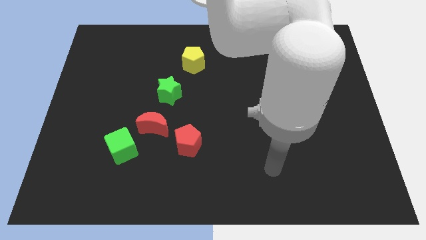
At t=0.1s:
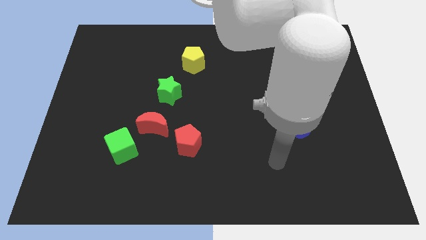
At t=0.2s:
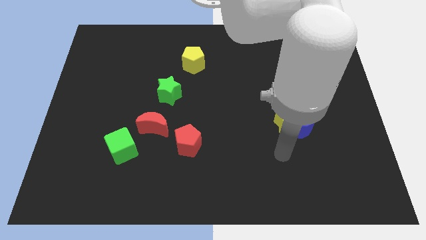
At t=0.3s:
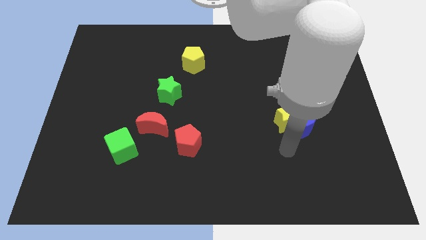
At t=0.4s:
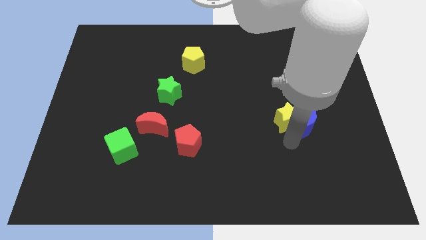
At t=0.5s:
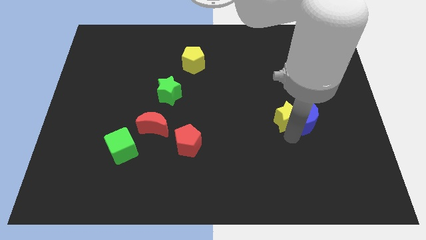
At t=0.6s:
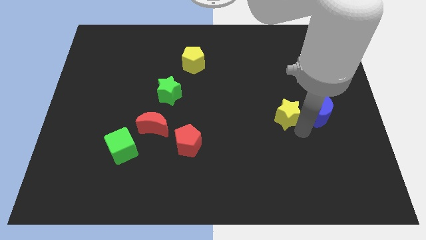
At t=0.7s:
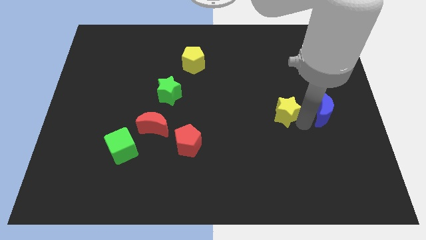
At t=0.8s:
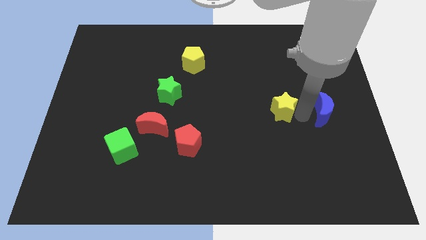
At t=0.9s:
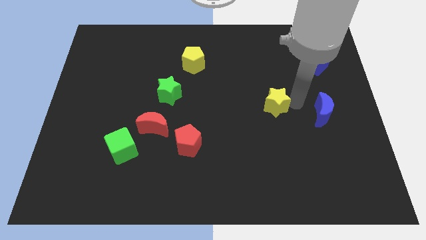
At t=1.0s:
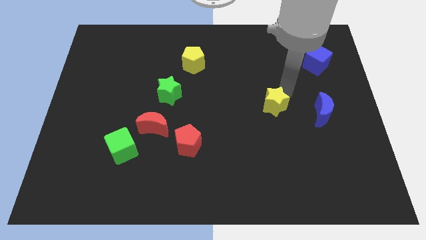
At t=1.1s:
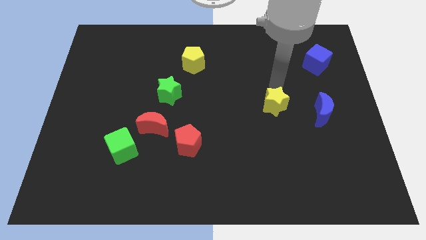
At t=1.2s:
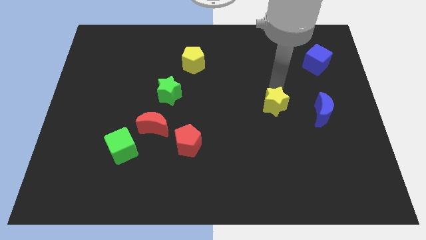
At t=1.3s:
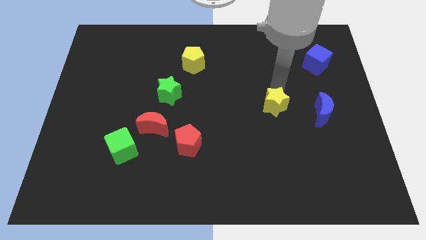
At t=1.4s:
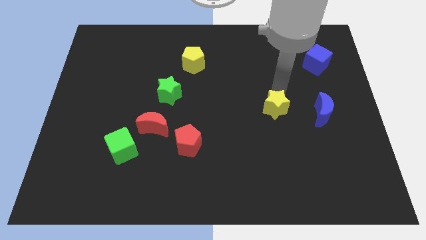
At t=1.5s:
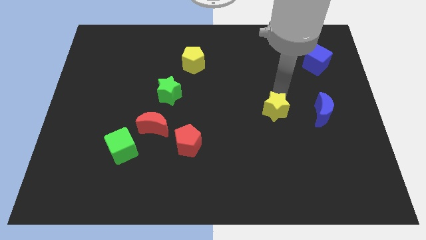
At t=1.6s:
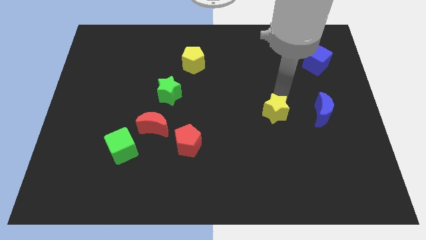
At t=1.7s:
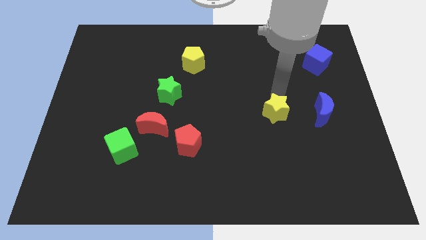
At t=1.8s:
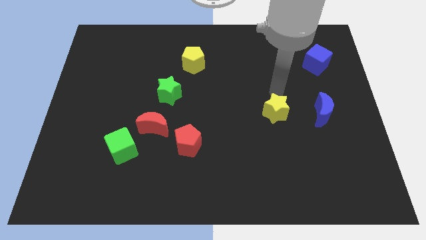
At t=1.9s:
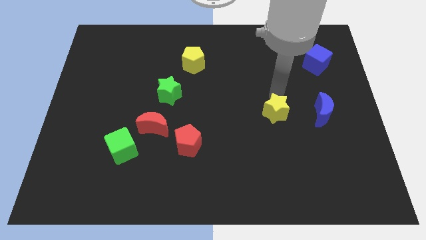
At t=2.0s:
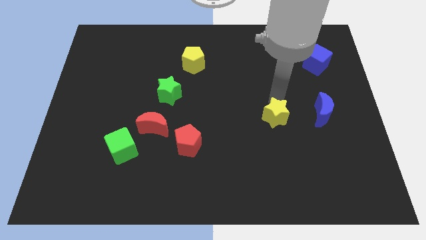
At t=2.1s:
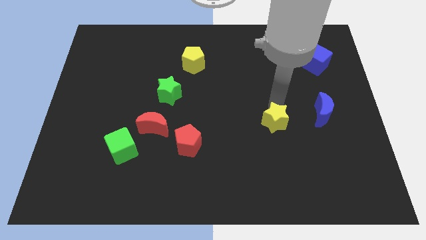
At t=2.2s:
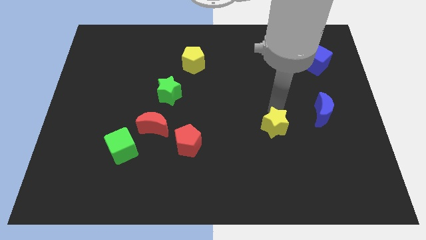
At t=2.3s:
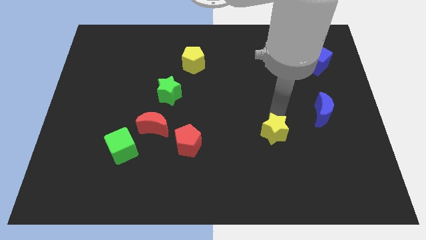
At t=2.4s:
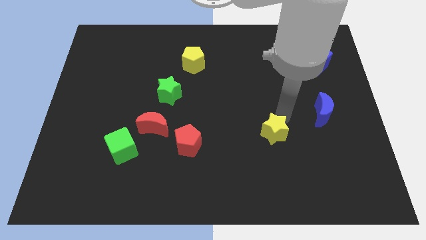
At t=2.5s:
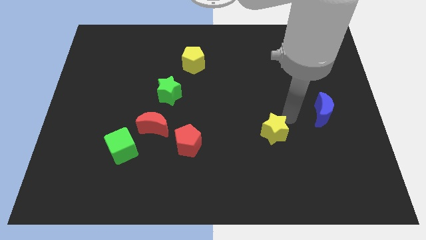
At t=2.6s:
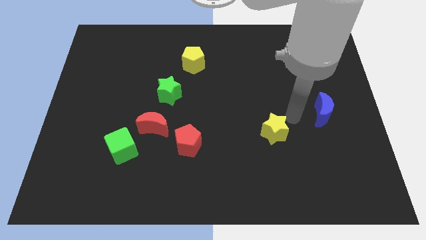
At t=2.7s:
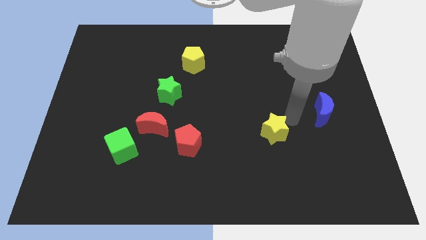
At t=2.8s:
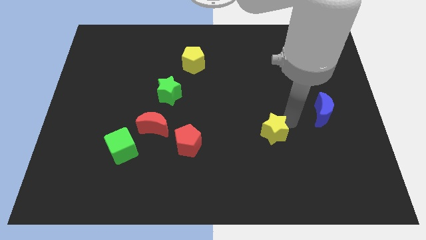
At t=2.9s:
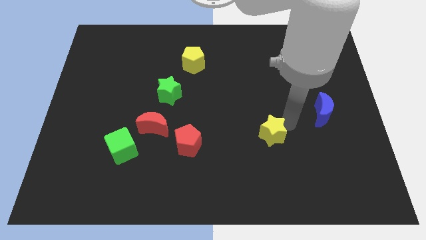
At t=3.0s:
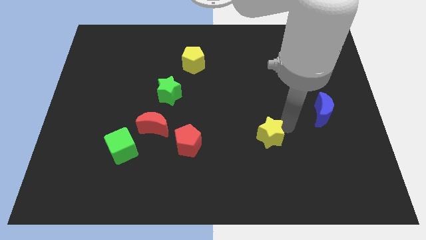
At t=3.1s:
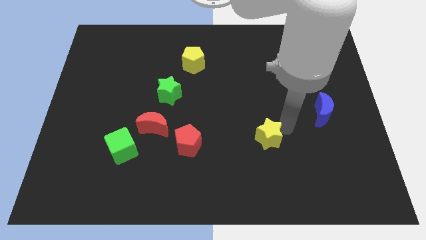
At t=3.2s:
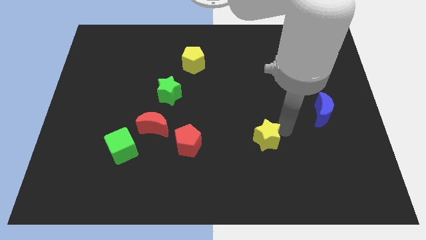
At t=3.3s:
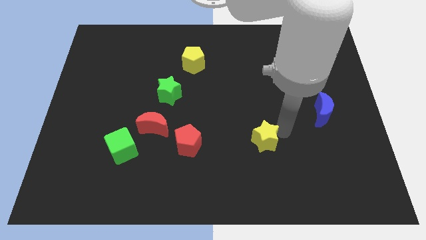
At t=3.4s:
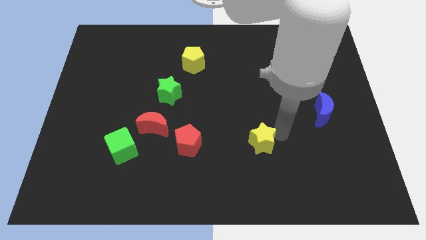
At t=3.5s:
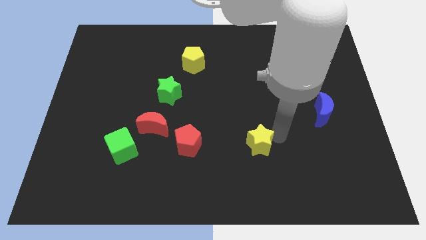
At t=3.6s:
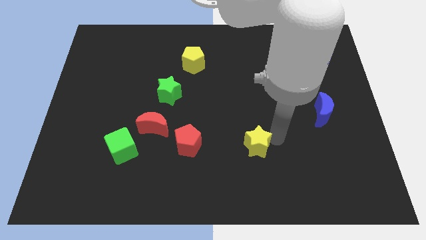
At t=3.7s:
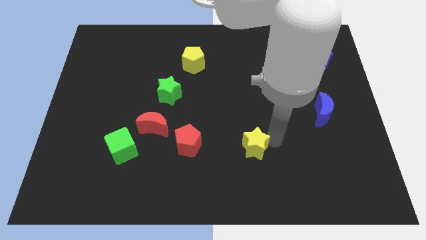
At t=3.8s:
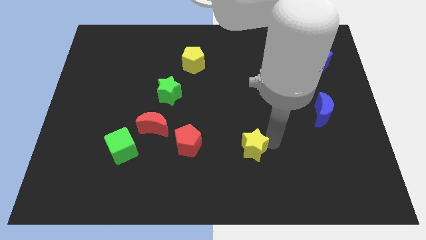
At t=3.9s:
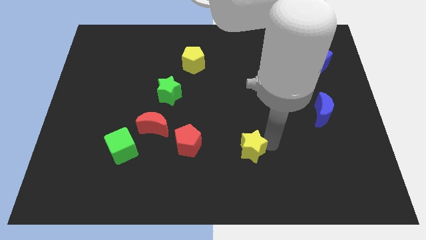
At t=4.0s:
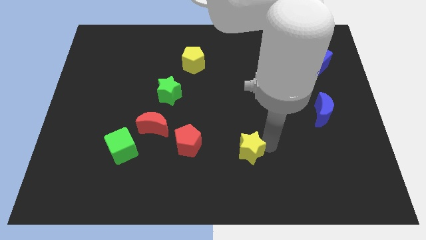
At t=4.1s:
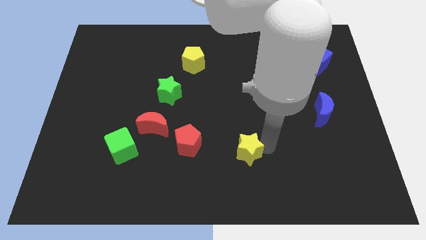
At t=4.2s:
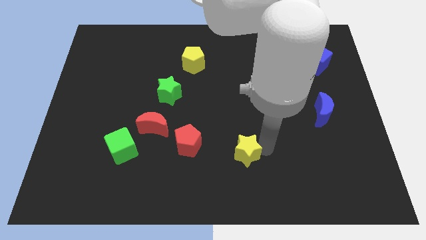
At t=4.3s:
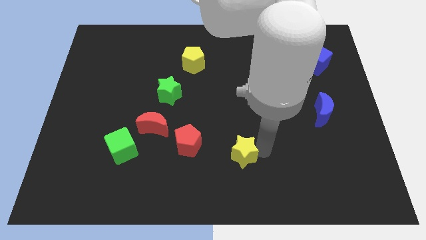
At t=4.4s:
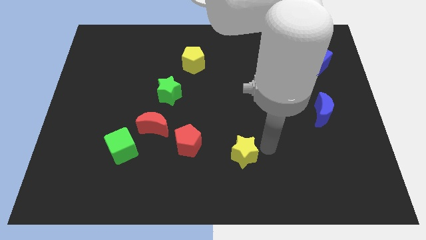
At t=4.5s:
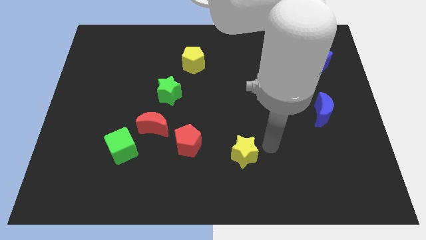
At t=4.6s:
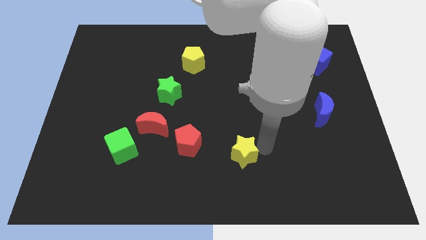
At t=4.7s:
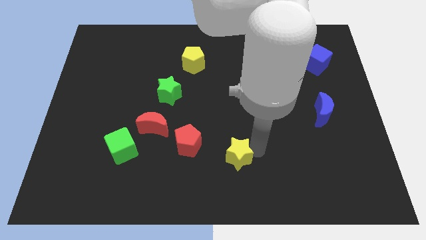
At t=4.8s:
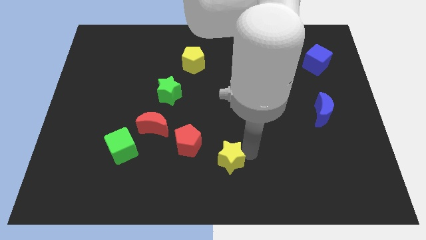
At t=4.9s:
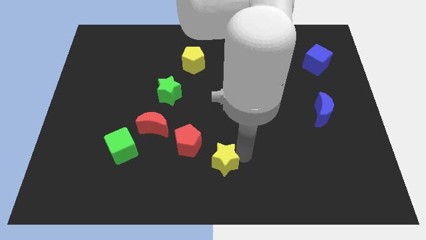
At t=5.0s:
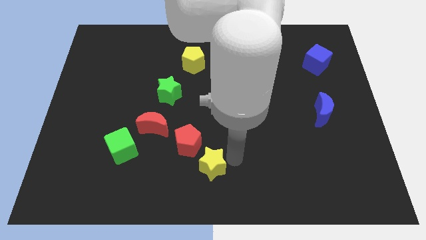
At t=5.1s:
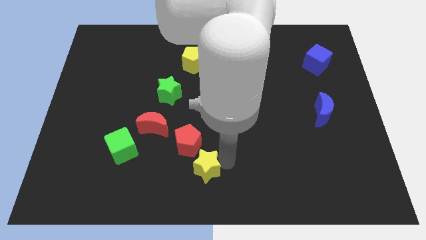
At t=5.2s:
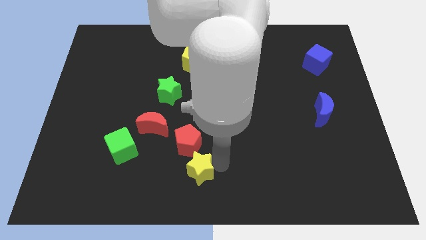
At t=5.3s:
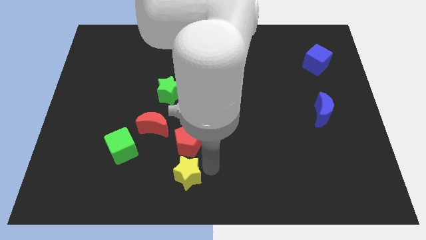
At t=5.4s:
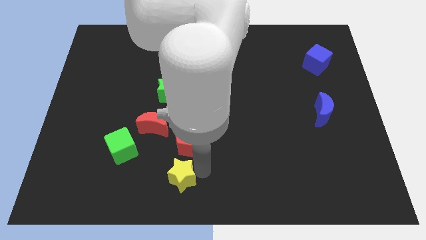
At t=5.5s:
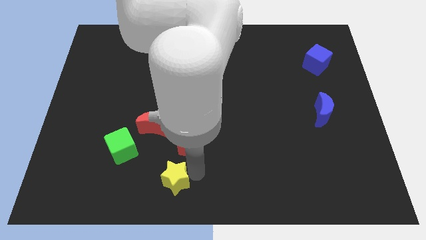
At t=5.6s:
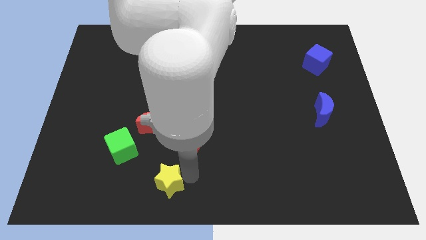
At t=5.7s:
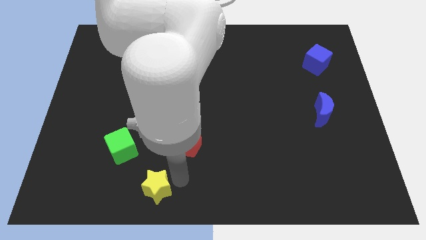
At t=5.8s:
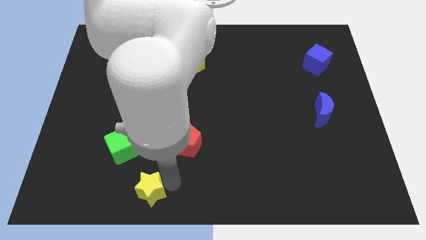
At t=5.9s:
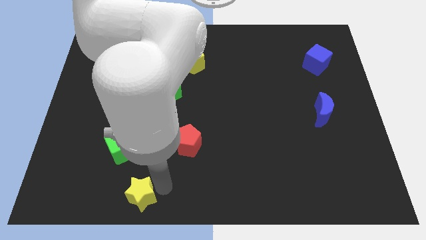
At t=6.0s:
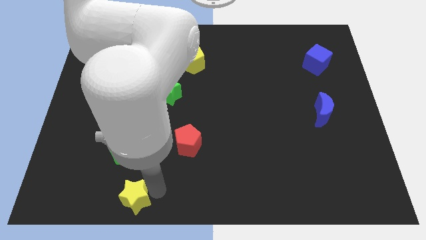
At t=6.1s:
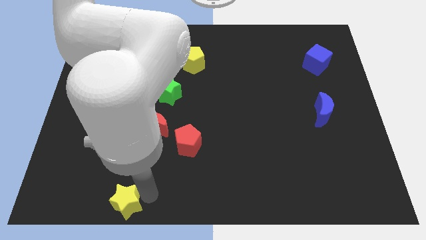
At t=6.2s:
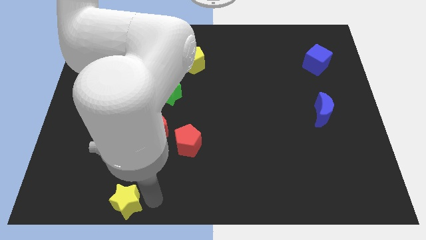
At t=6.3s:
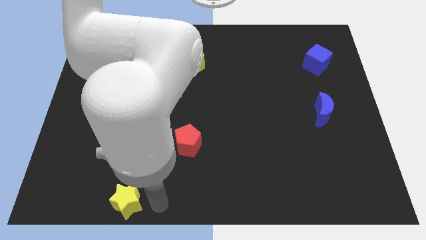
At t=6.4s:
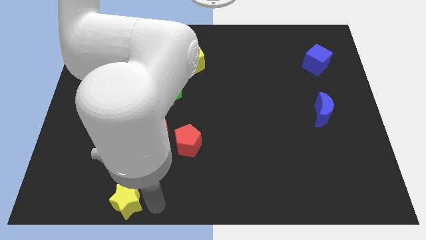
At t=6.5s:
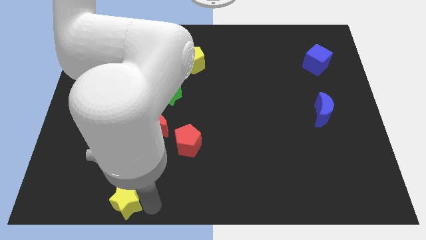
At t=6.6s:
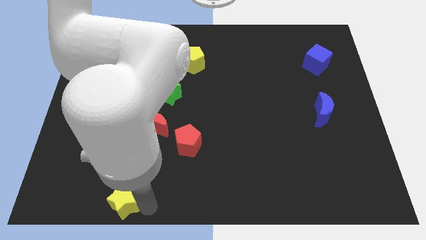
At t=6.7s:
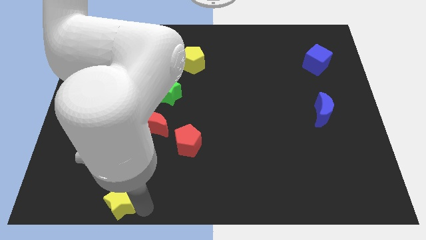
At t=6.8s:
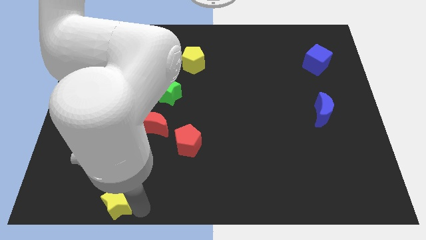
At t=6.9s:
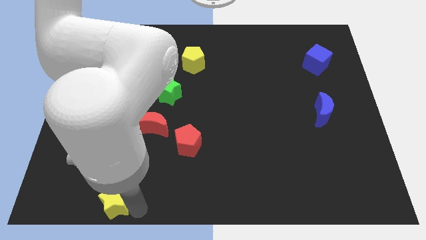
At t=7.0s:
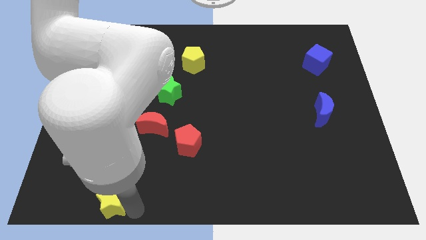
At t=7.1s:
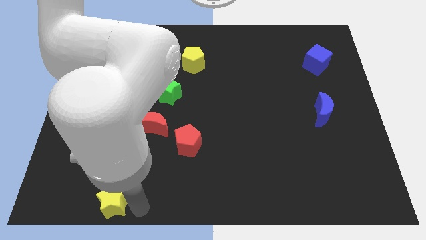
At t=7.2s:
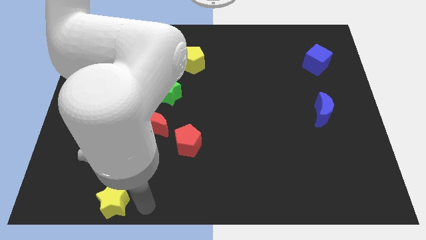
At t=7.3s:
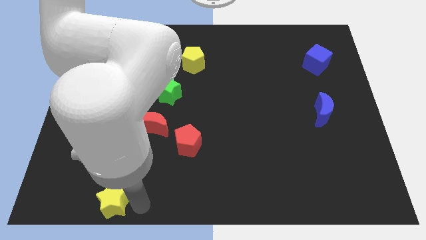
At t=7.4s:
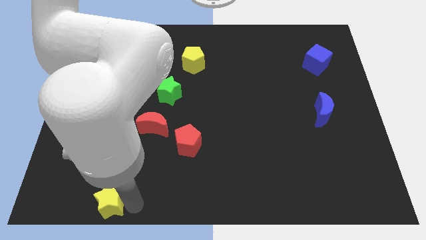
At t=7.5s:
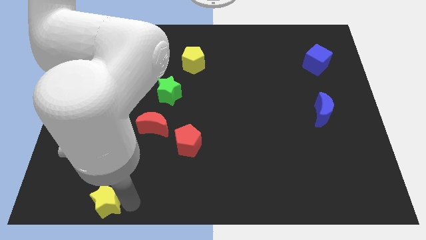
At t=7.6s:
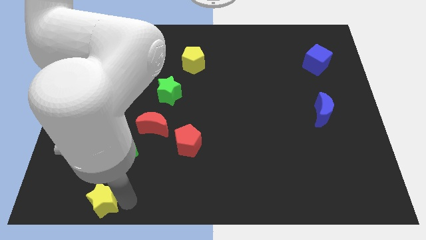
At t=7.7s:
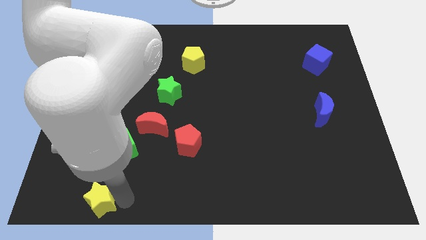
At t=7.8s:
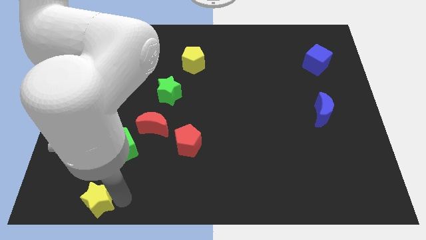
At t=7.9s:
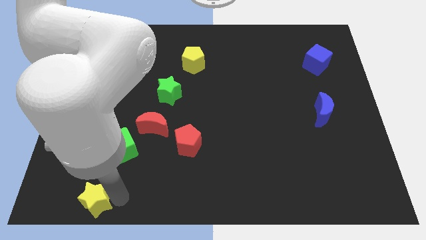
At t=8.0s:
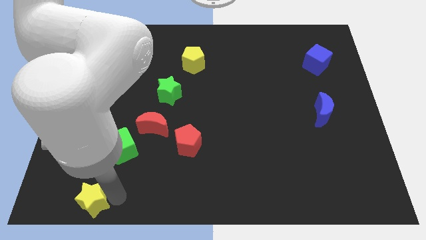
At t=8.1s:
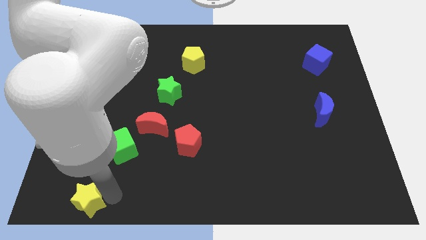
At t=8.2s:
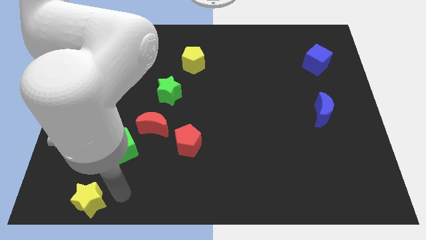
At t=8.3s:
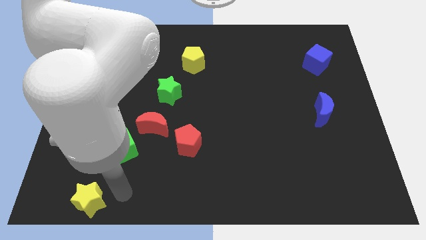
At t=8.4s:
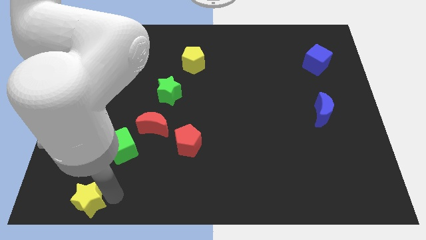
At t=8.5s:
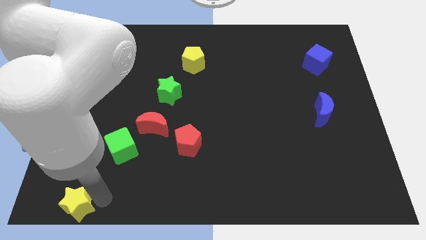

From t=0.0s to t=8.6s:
move the yellow star to the bottom left corner
